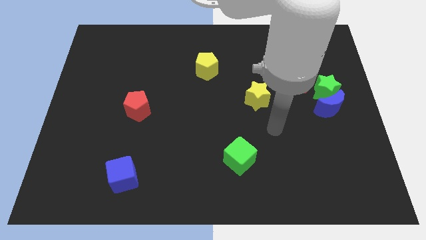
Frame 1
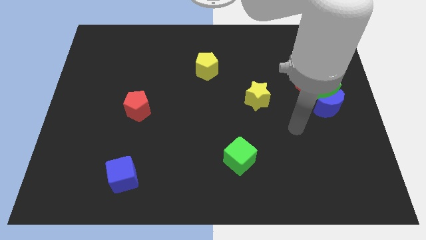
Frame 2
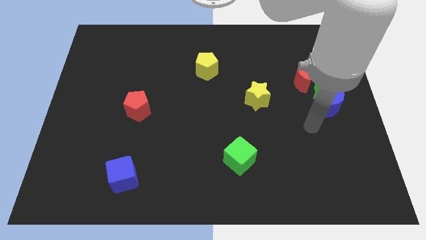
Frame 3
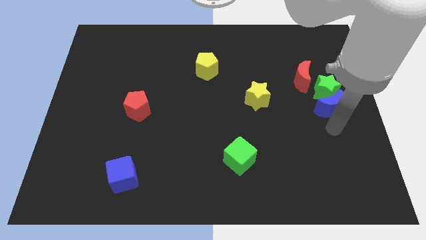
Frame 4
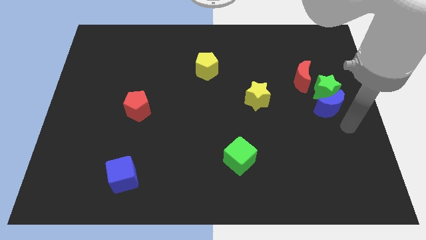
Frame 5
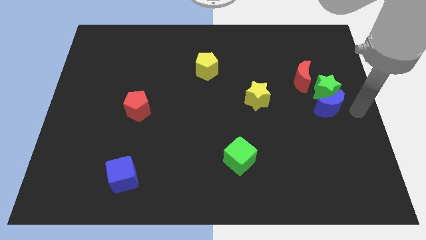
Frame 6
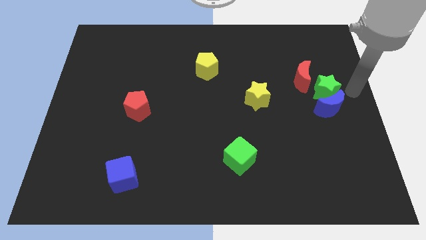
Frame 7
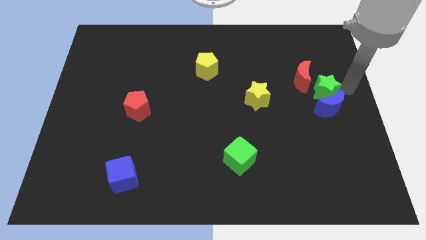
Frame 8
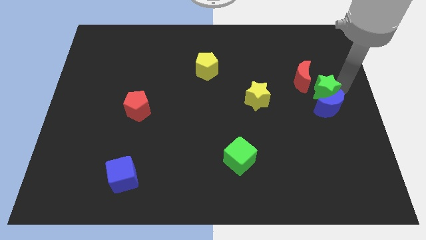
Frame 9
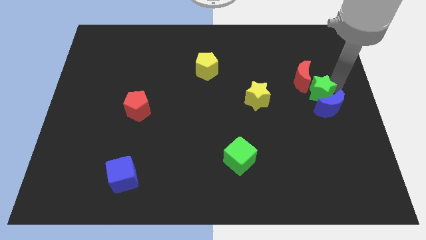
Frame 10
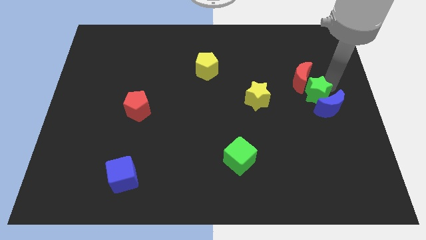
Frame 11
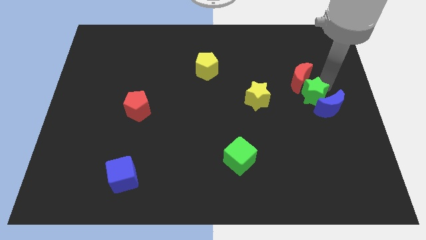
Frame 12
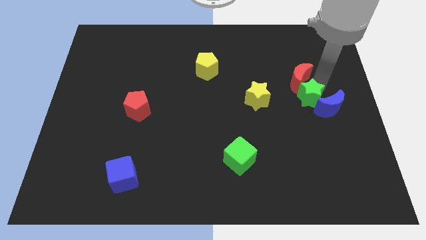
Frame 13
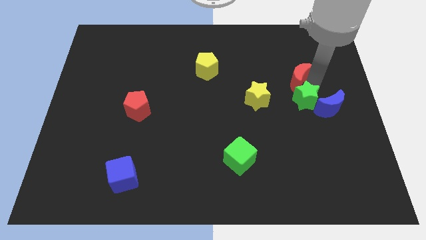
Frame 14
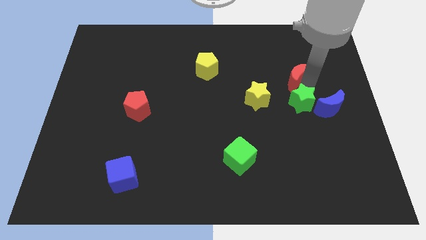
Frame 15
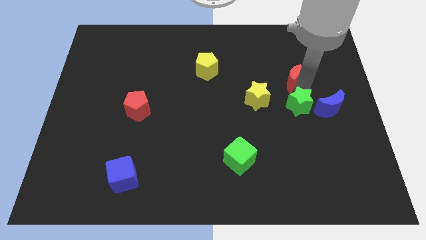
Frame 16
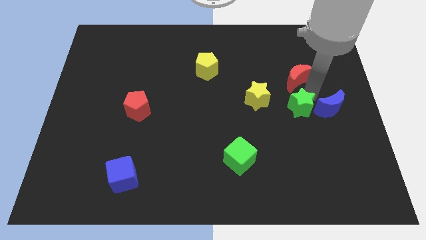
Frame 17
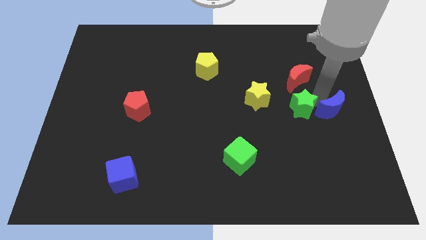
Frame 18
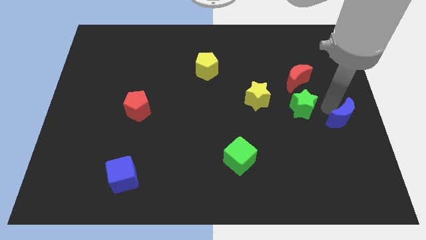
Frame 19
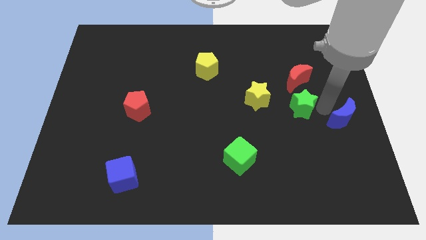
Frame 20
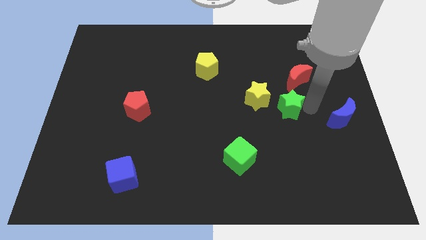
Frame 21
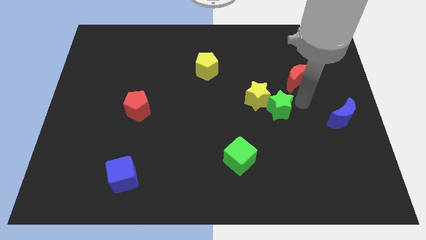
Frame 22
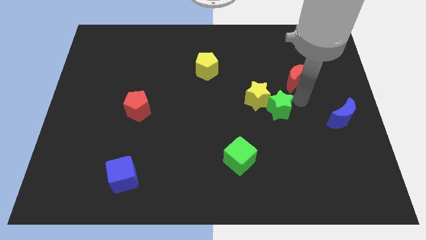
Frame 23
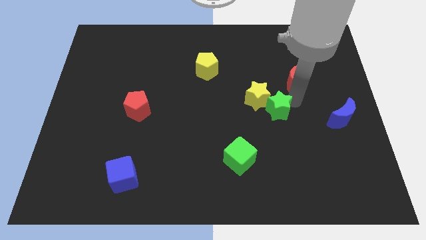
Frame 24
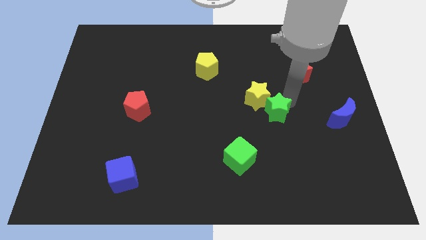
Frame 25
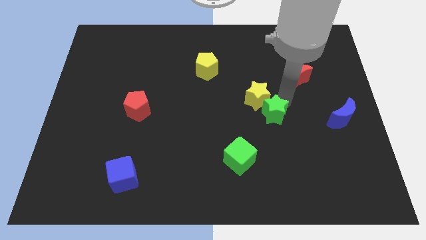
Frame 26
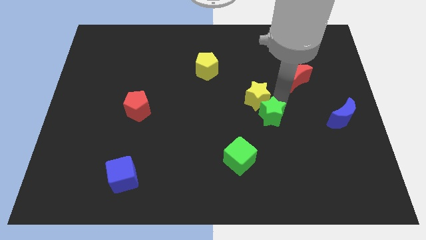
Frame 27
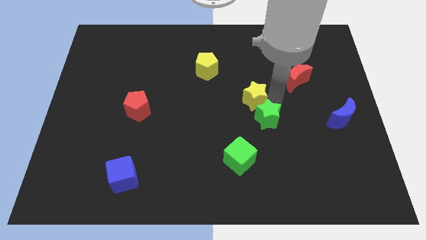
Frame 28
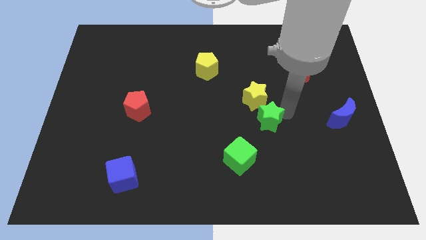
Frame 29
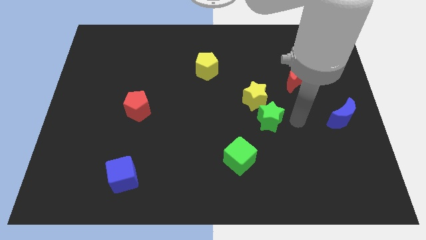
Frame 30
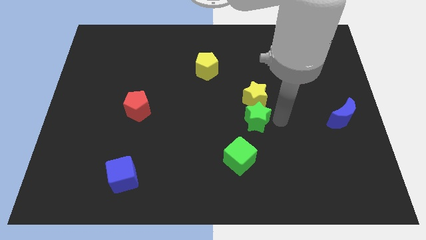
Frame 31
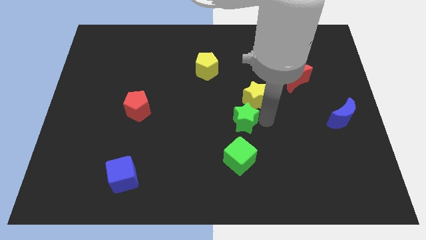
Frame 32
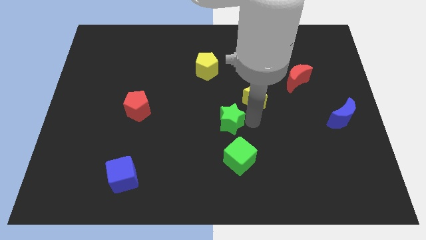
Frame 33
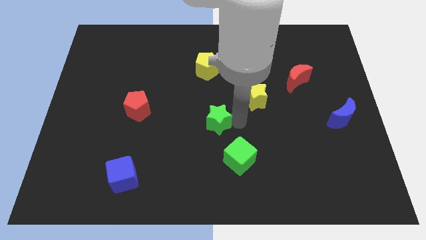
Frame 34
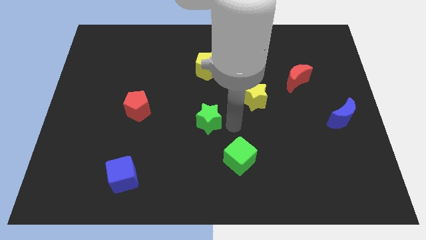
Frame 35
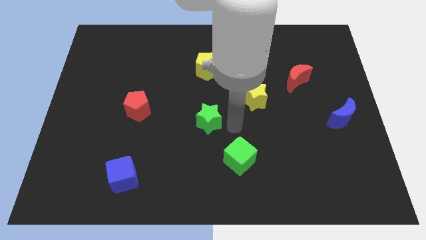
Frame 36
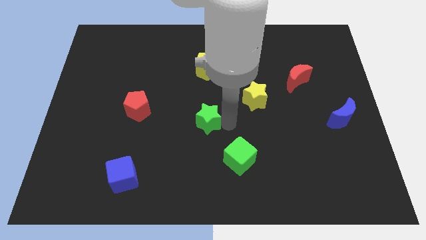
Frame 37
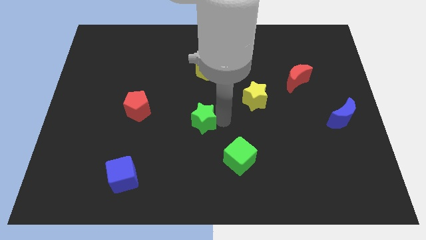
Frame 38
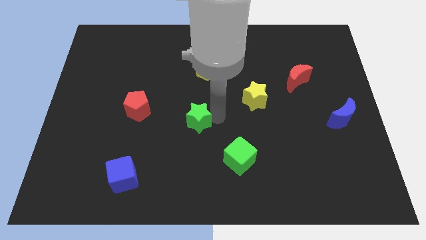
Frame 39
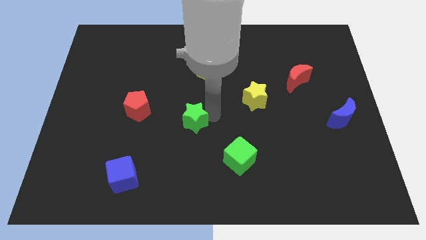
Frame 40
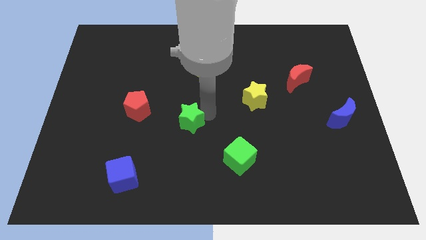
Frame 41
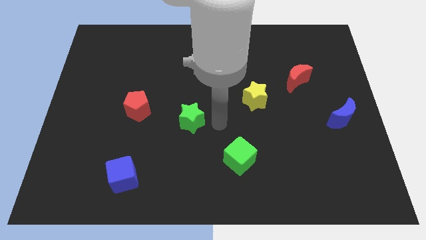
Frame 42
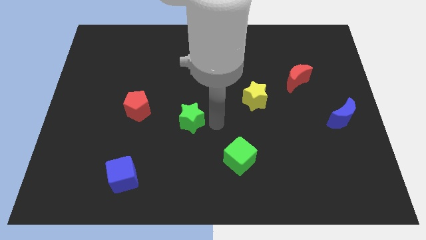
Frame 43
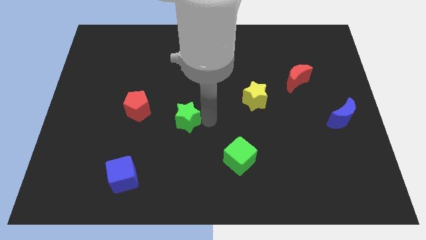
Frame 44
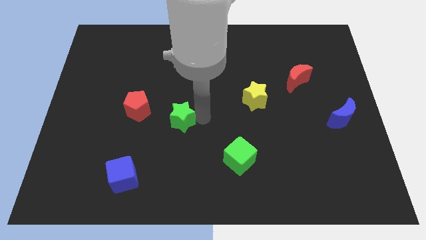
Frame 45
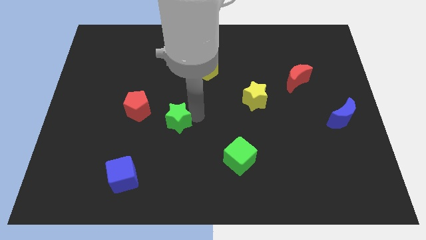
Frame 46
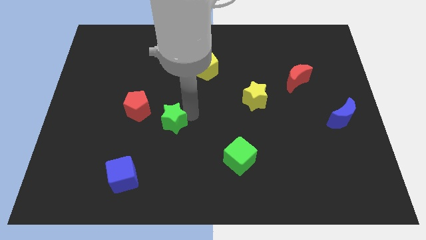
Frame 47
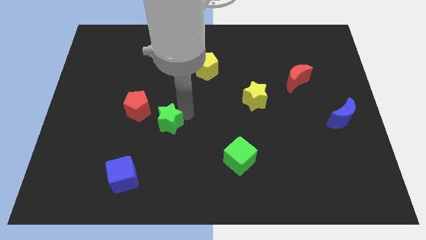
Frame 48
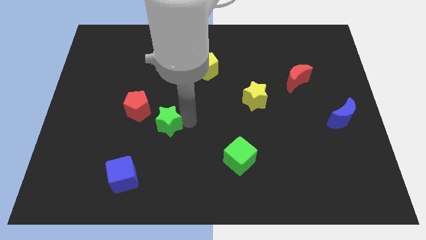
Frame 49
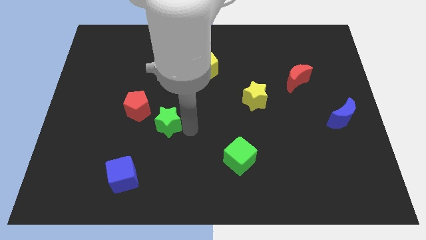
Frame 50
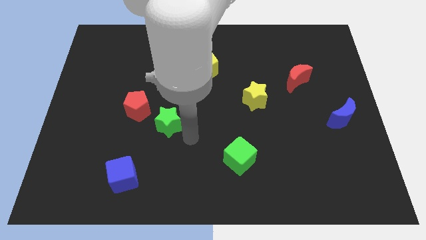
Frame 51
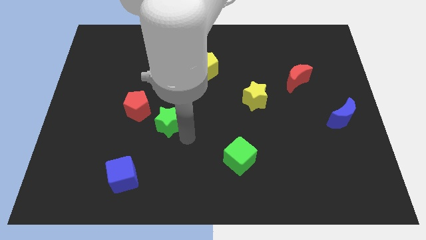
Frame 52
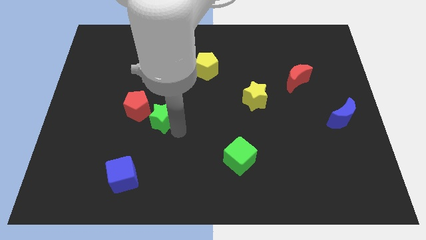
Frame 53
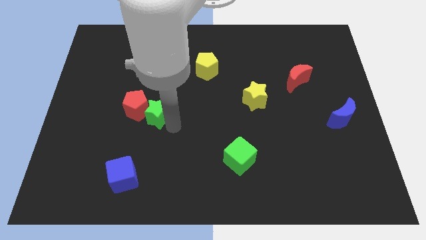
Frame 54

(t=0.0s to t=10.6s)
push the green star to the red pentagon

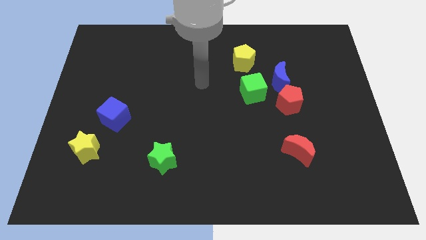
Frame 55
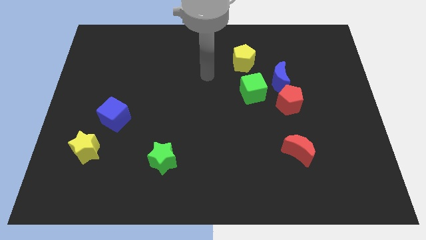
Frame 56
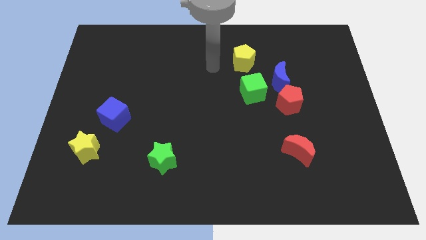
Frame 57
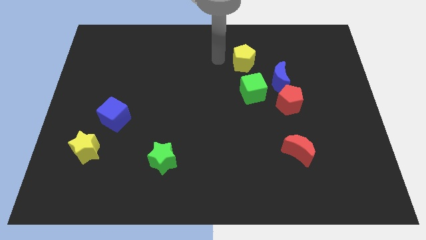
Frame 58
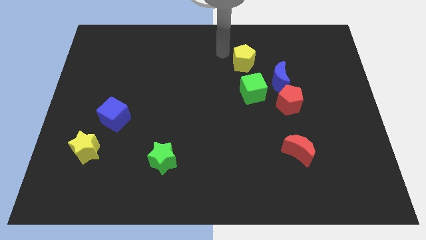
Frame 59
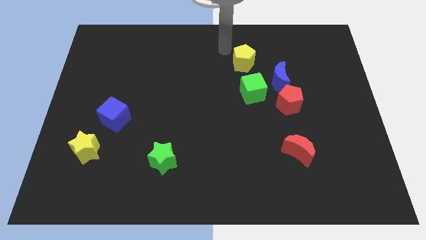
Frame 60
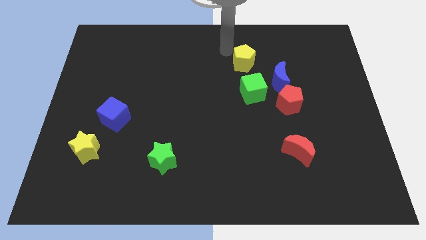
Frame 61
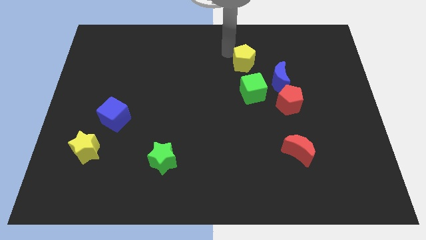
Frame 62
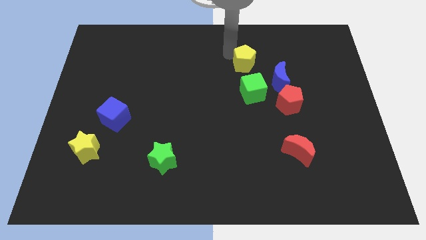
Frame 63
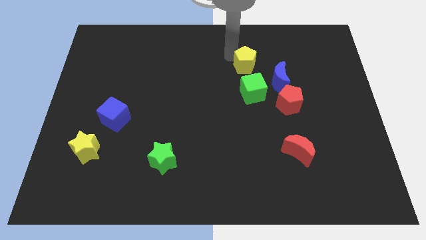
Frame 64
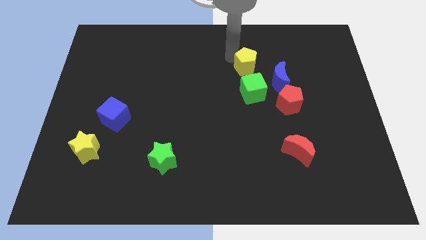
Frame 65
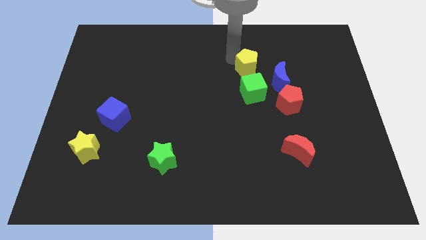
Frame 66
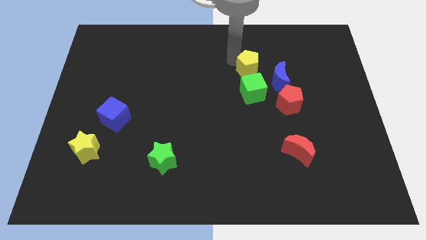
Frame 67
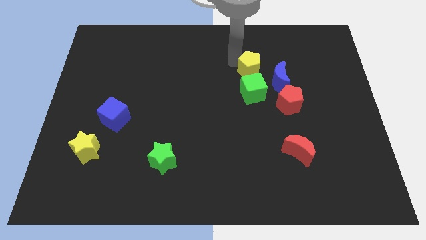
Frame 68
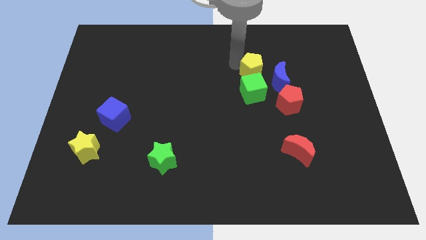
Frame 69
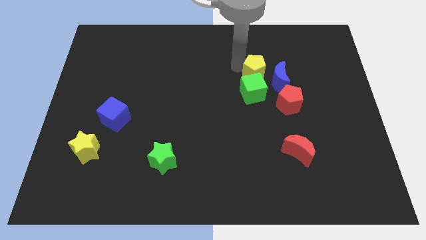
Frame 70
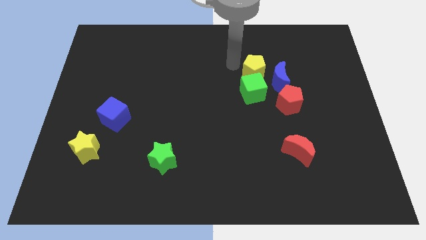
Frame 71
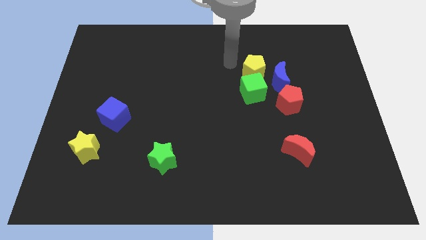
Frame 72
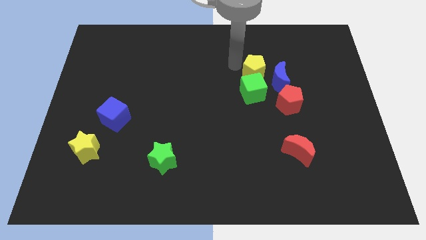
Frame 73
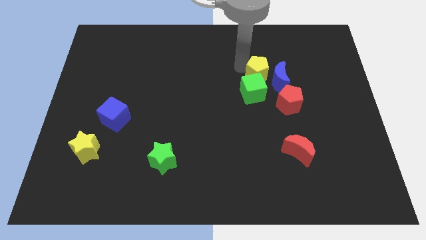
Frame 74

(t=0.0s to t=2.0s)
put the yellow pentagon close to the blue moon
